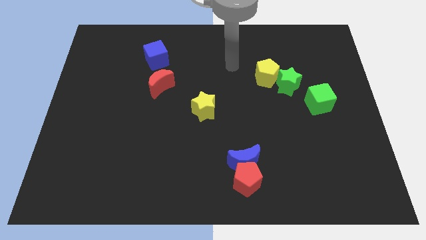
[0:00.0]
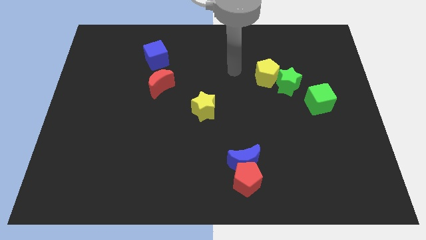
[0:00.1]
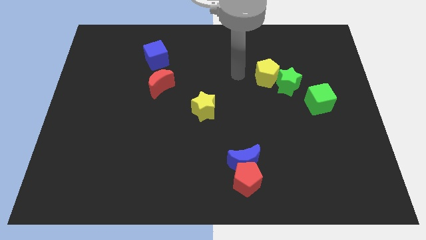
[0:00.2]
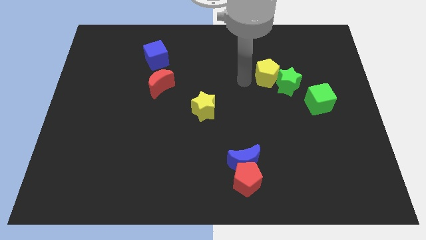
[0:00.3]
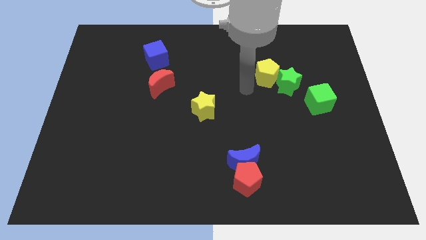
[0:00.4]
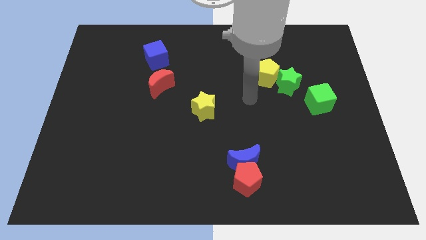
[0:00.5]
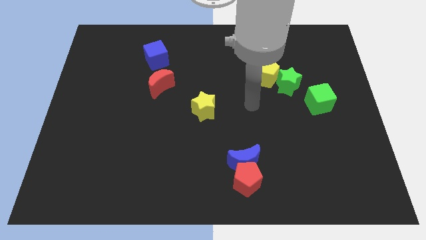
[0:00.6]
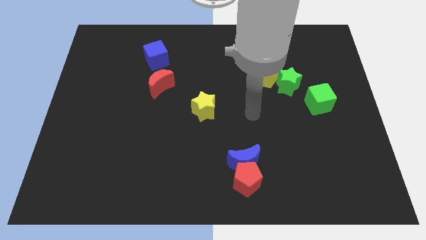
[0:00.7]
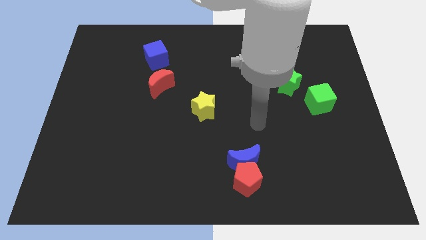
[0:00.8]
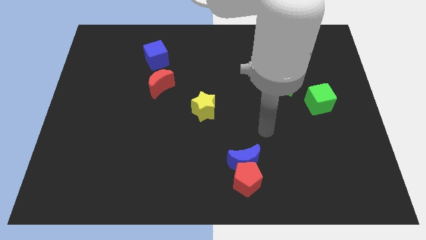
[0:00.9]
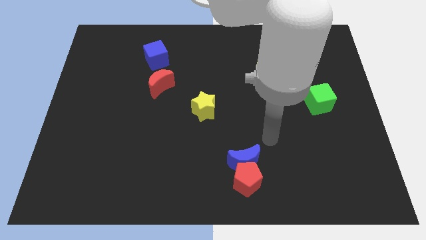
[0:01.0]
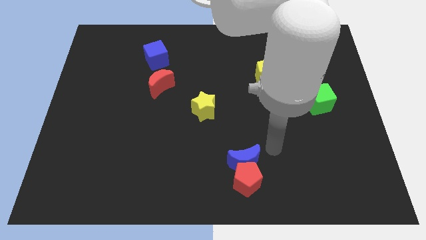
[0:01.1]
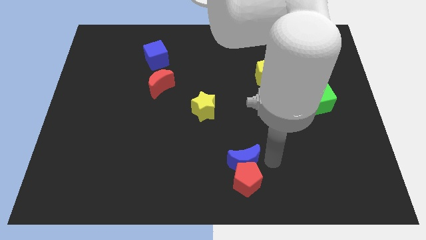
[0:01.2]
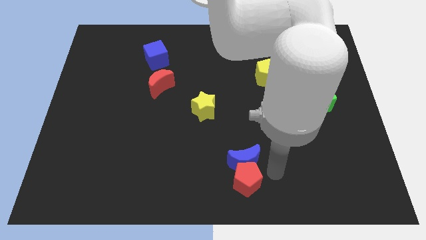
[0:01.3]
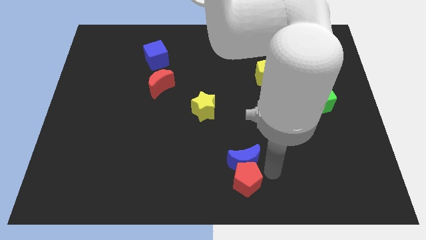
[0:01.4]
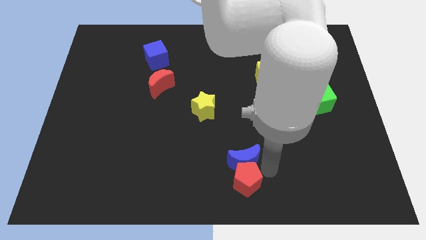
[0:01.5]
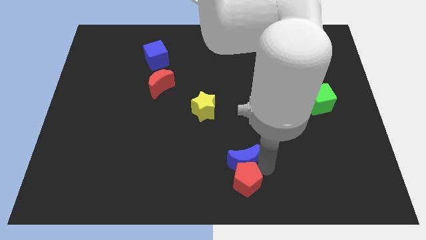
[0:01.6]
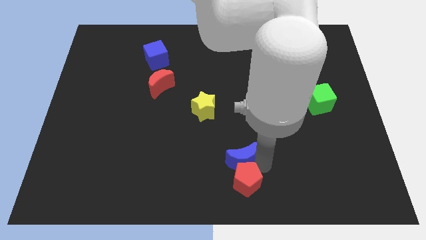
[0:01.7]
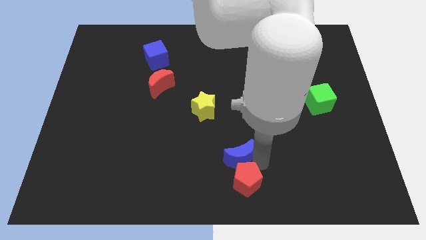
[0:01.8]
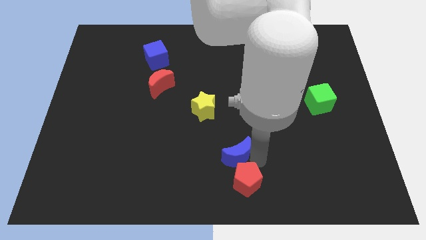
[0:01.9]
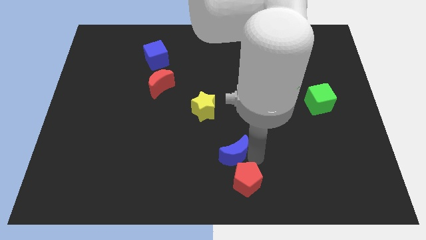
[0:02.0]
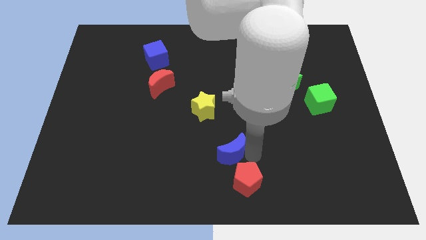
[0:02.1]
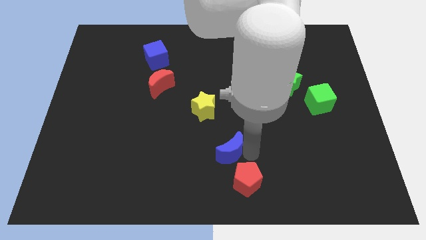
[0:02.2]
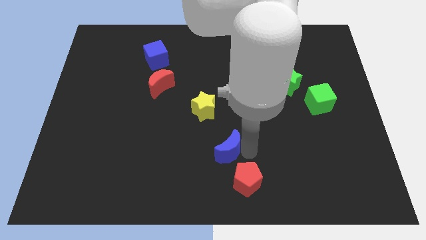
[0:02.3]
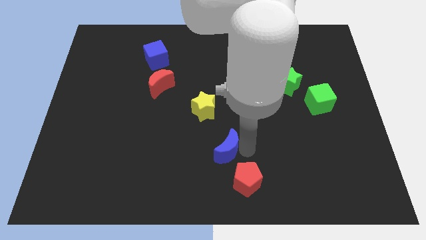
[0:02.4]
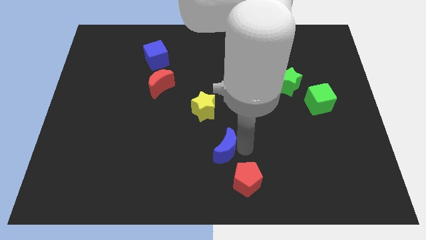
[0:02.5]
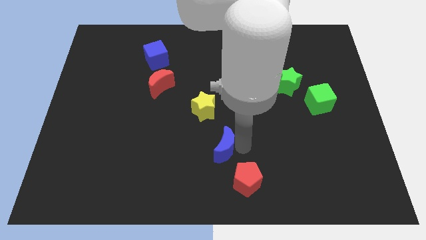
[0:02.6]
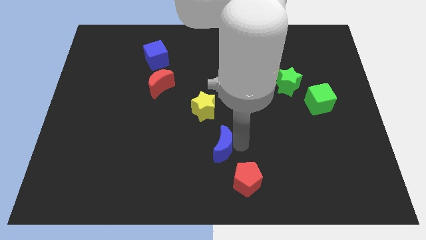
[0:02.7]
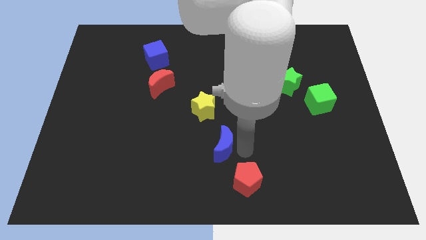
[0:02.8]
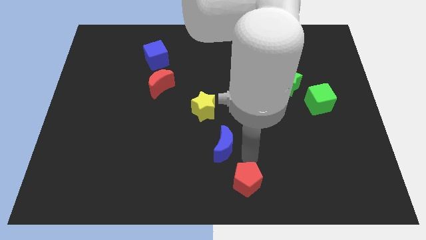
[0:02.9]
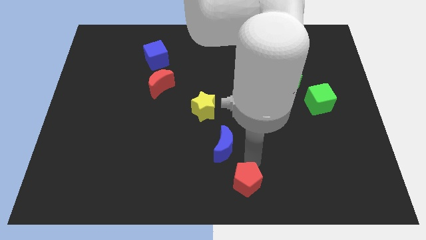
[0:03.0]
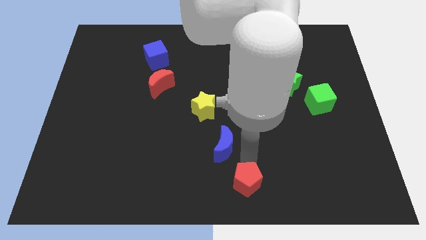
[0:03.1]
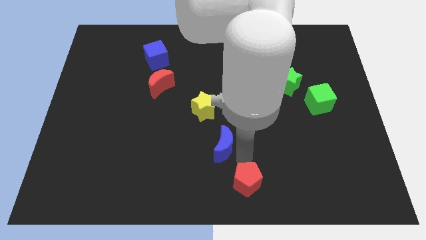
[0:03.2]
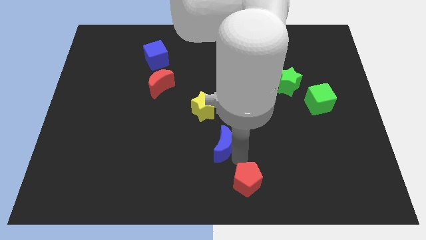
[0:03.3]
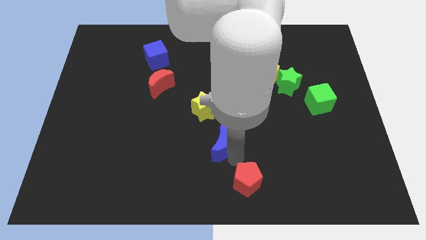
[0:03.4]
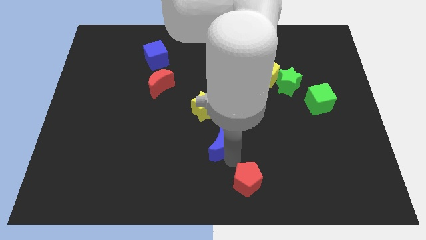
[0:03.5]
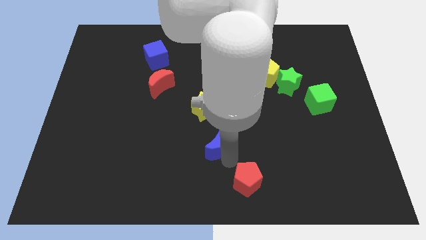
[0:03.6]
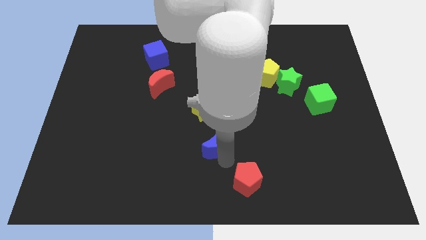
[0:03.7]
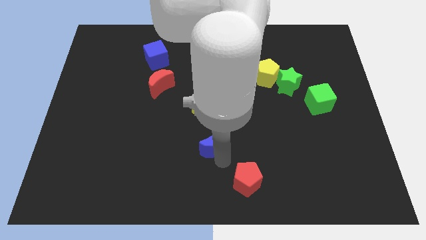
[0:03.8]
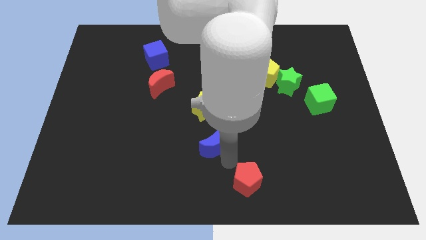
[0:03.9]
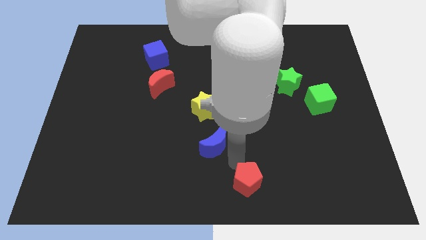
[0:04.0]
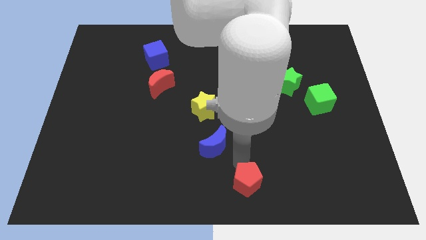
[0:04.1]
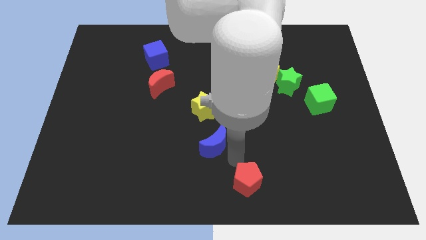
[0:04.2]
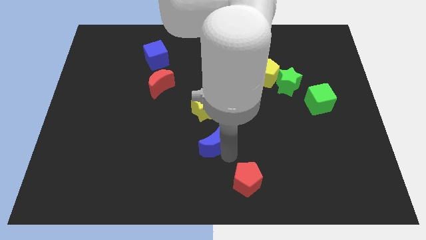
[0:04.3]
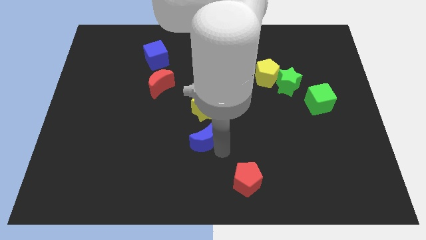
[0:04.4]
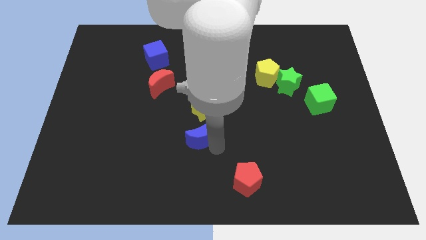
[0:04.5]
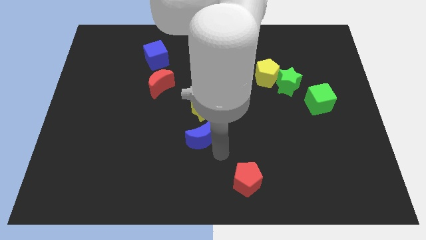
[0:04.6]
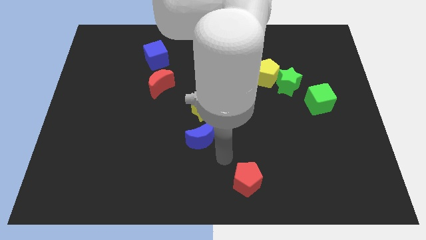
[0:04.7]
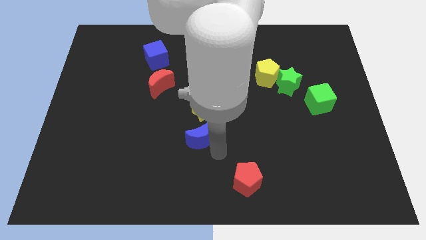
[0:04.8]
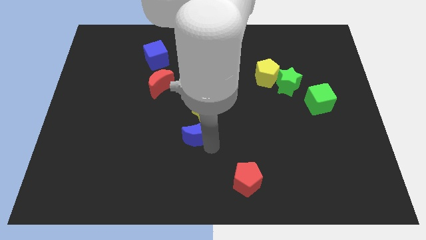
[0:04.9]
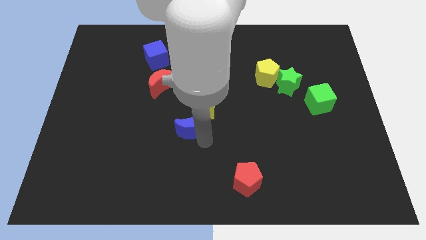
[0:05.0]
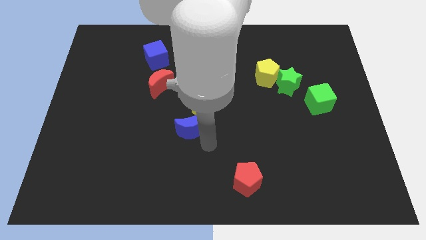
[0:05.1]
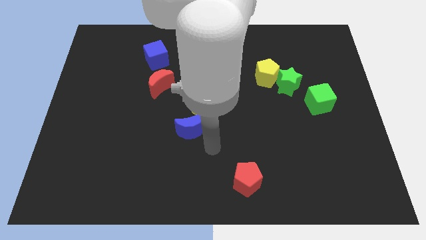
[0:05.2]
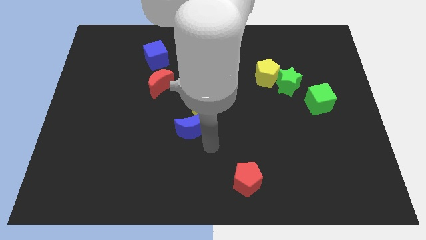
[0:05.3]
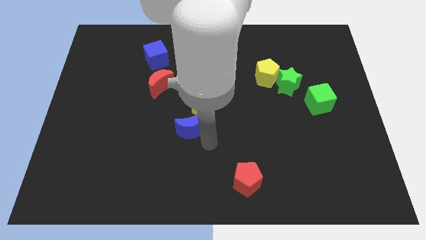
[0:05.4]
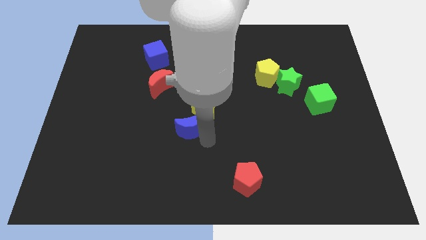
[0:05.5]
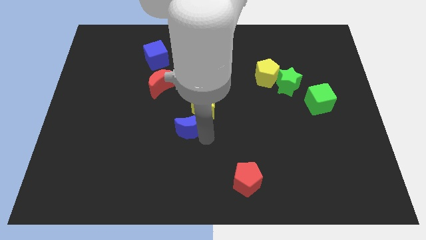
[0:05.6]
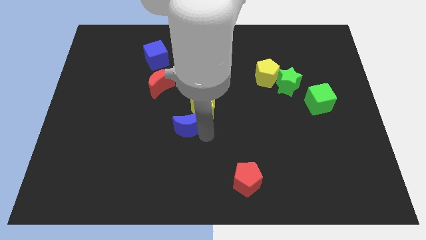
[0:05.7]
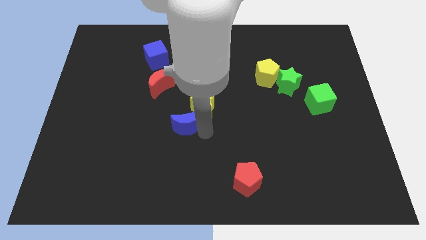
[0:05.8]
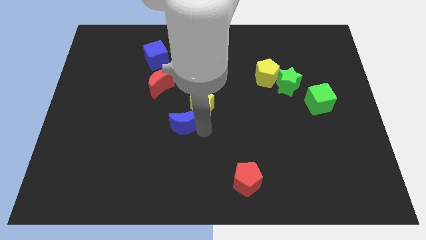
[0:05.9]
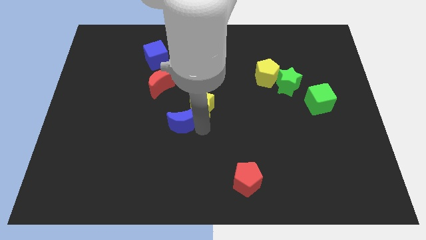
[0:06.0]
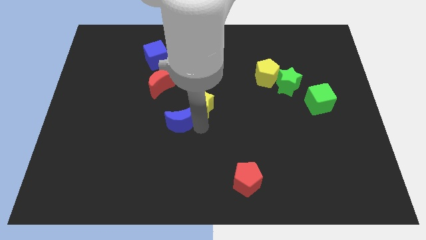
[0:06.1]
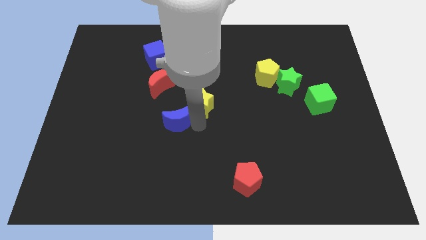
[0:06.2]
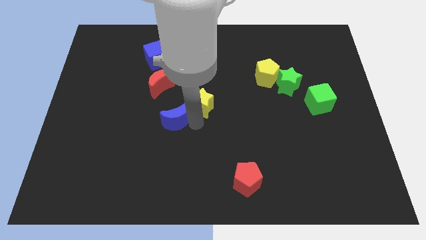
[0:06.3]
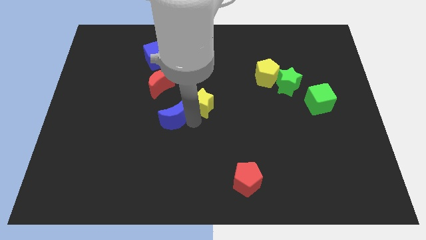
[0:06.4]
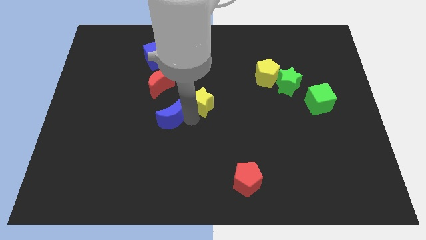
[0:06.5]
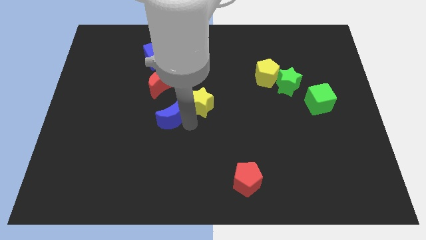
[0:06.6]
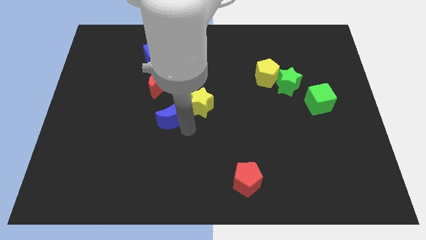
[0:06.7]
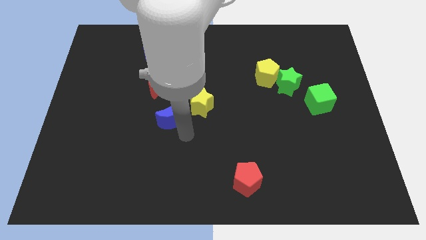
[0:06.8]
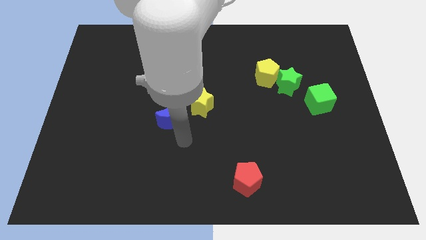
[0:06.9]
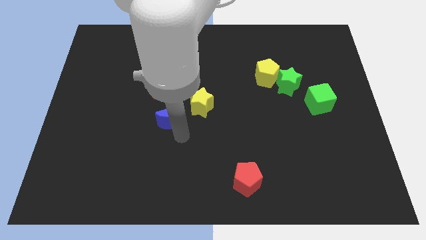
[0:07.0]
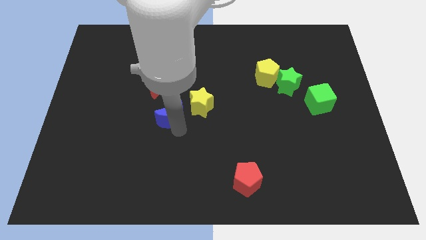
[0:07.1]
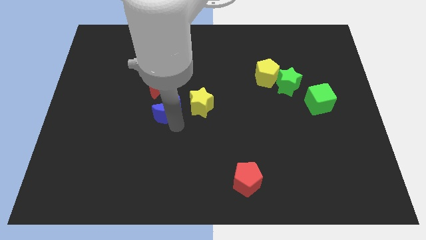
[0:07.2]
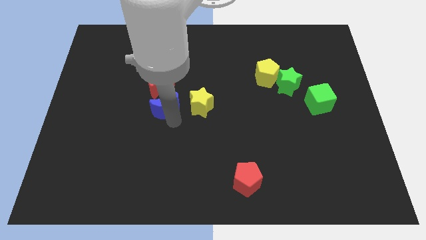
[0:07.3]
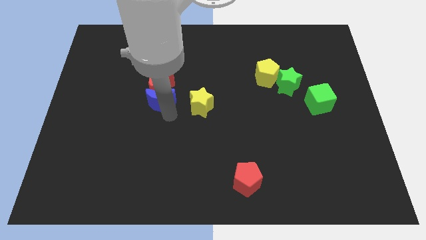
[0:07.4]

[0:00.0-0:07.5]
push the blue moon towards the red moon
